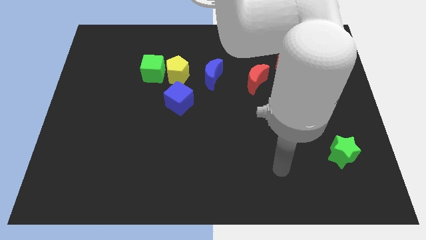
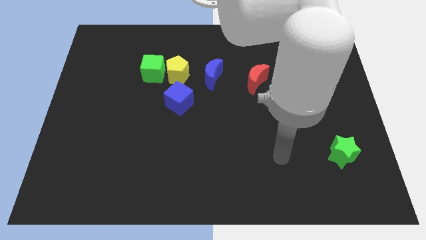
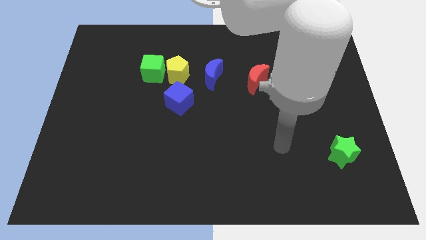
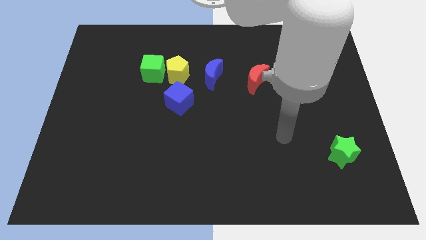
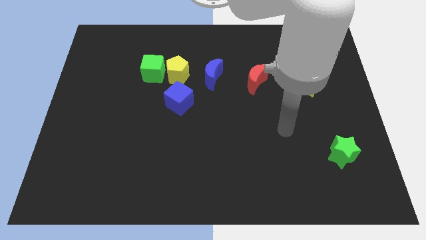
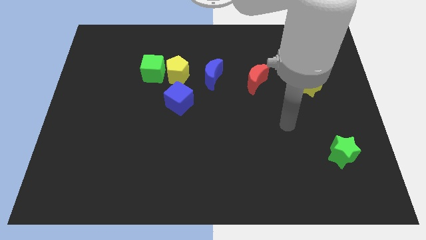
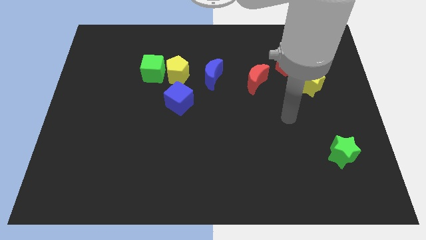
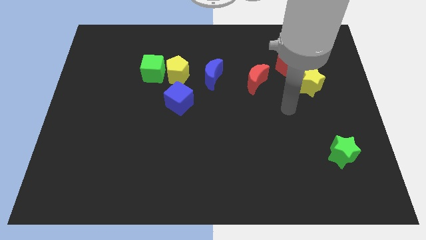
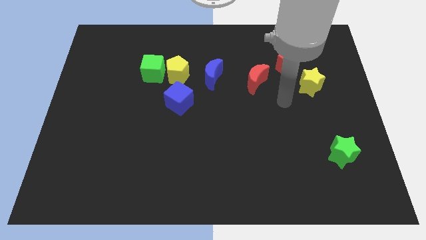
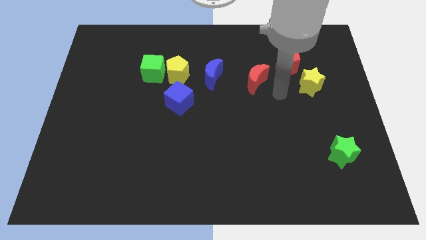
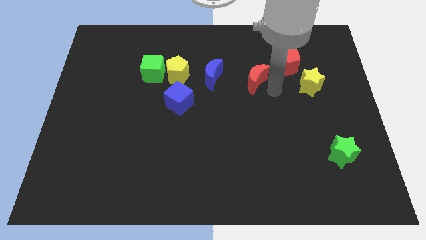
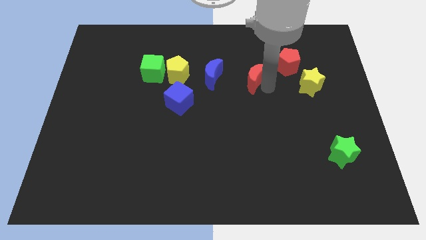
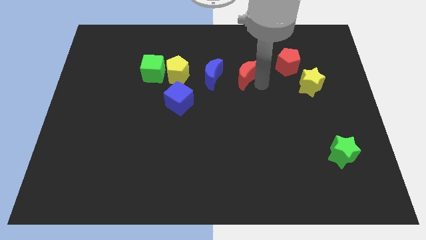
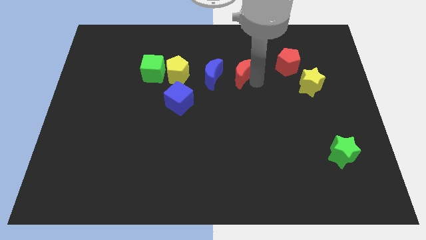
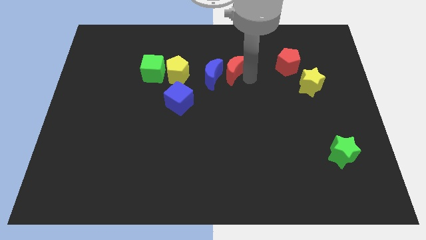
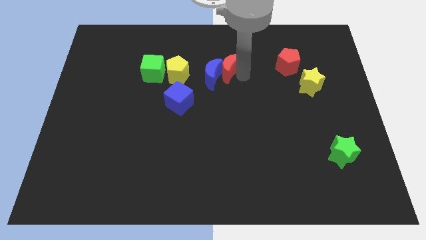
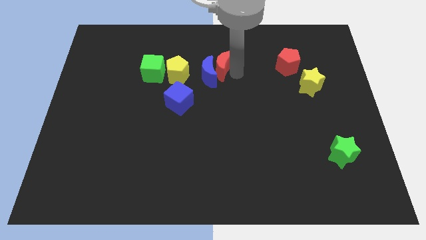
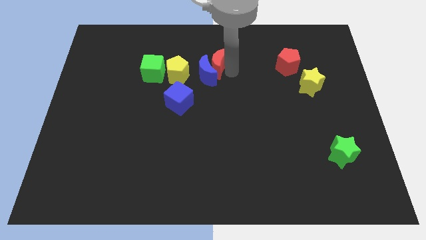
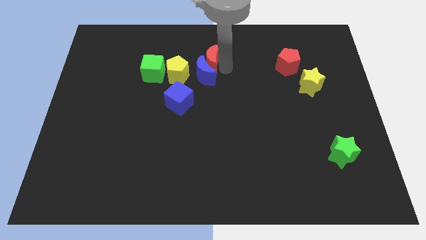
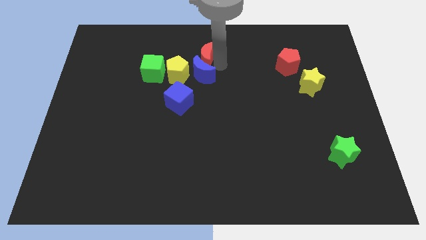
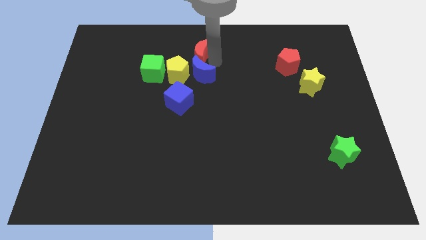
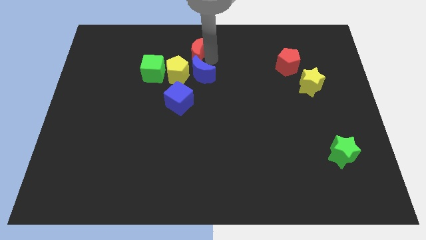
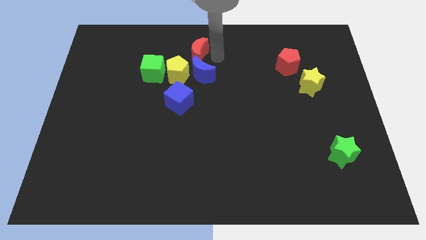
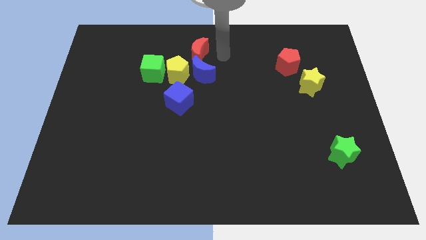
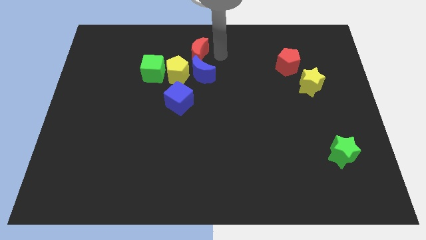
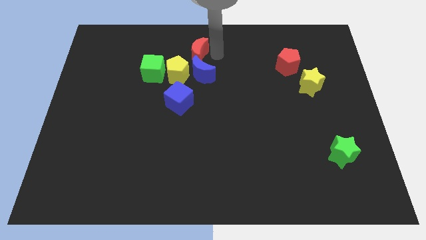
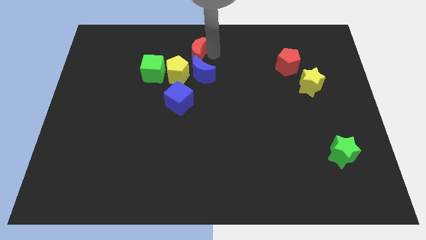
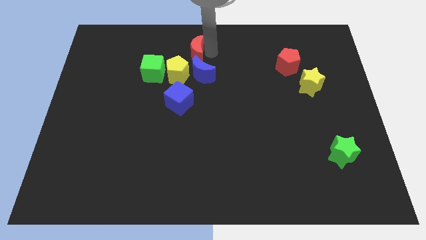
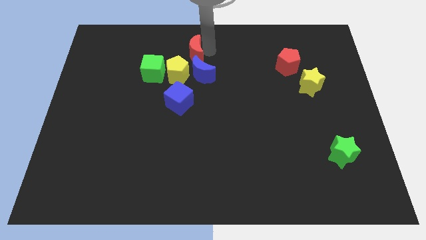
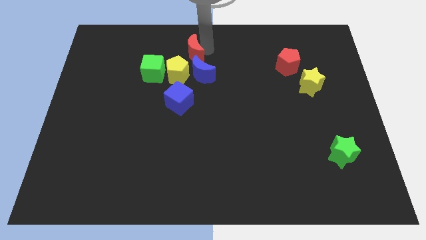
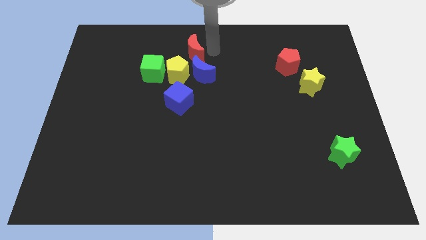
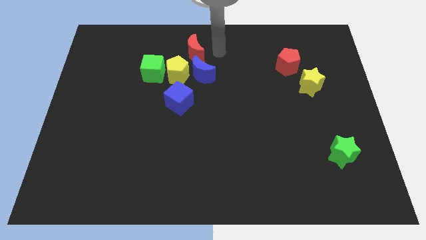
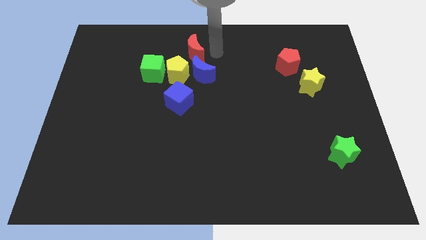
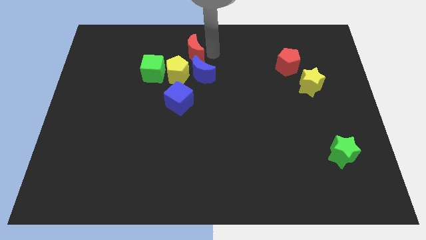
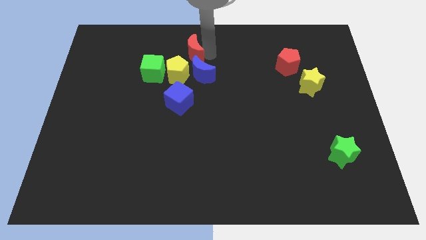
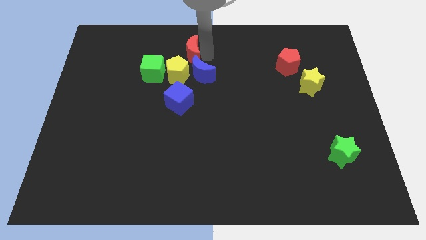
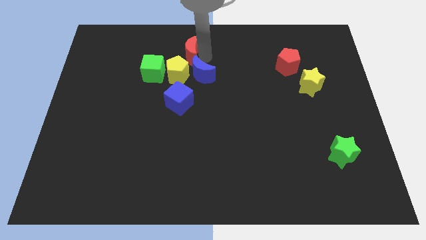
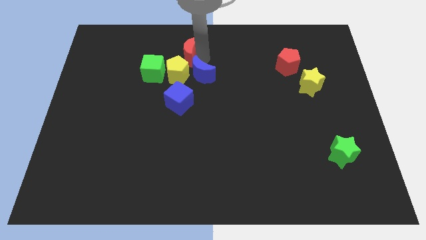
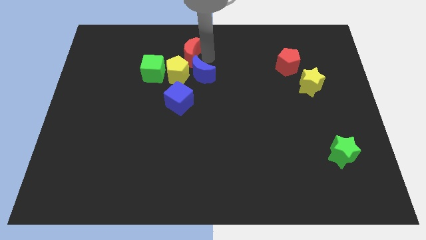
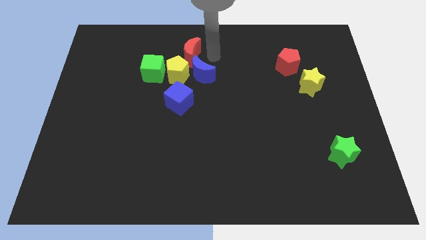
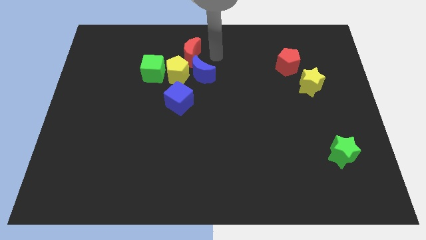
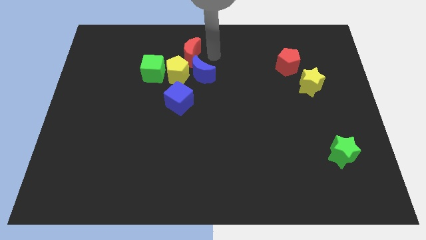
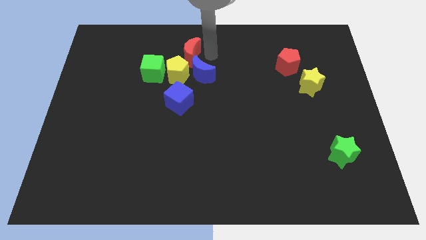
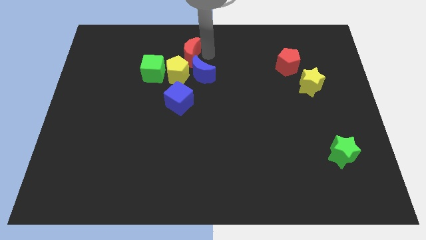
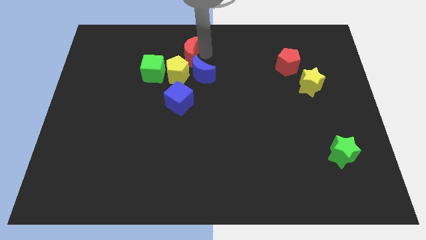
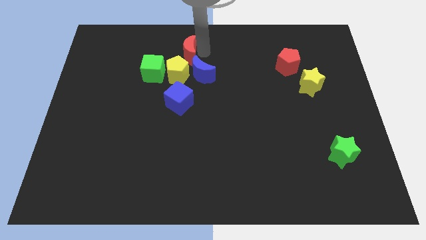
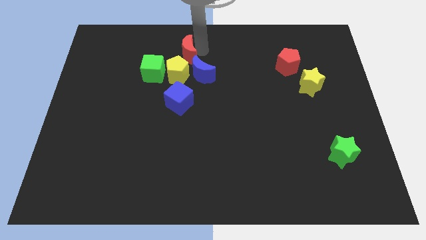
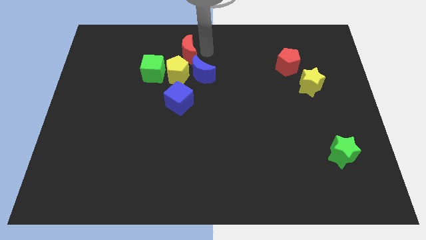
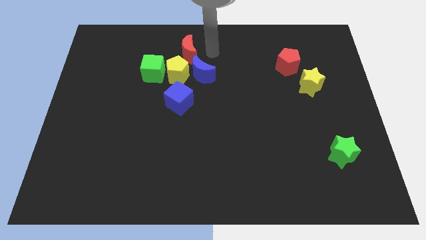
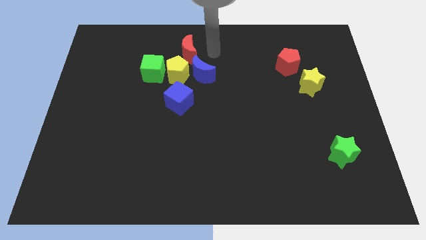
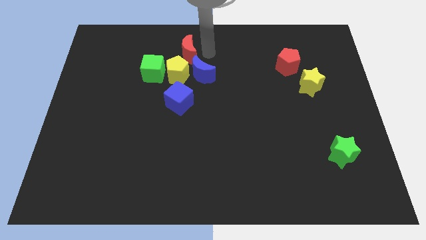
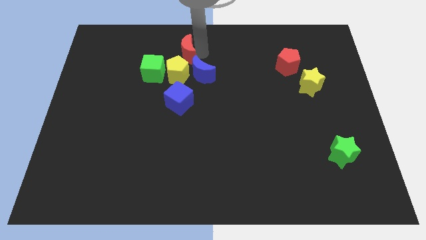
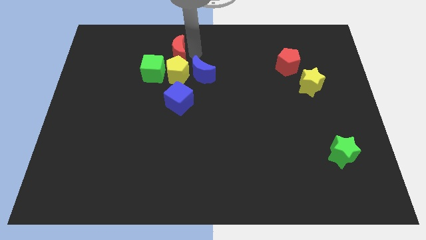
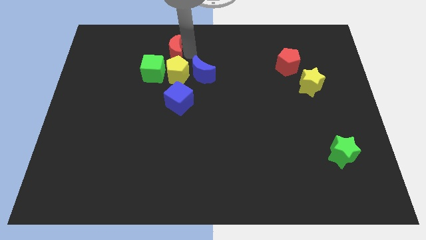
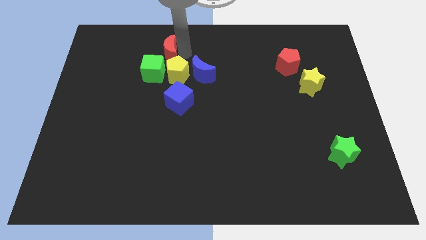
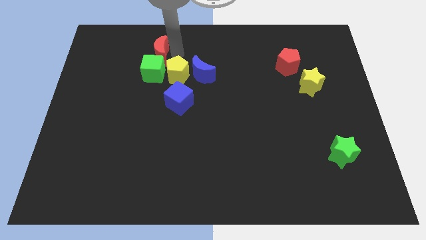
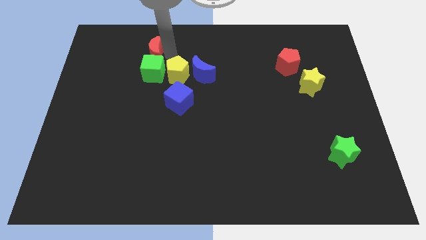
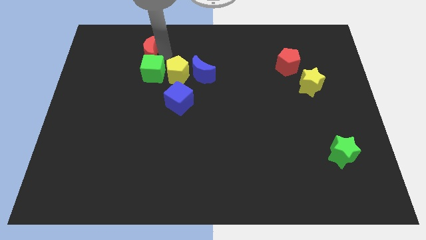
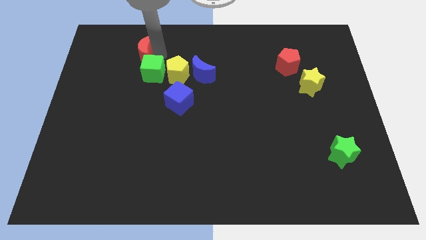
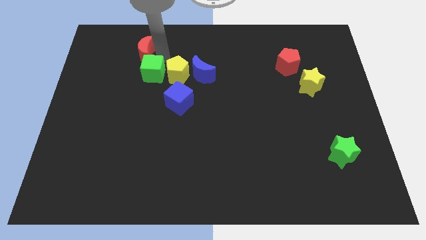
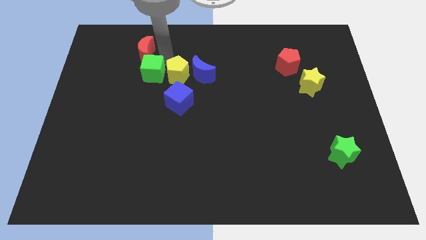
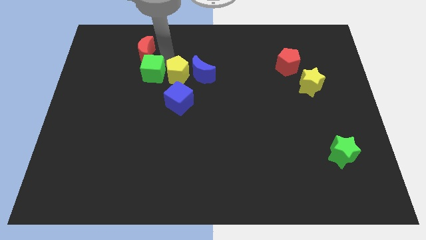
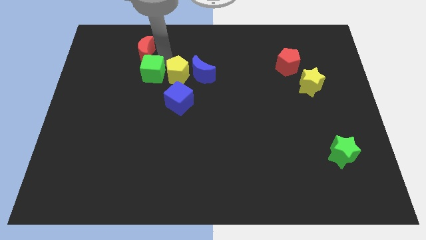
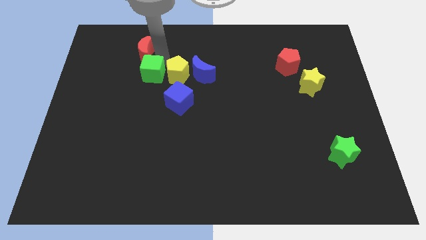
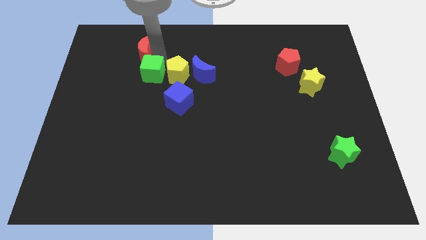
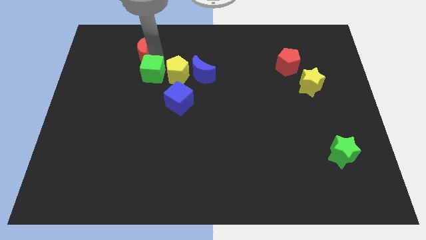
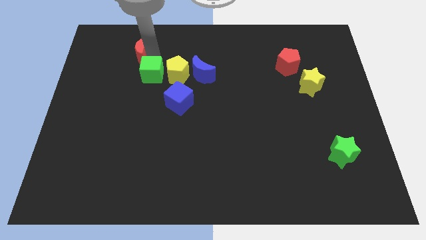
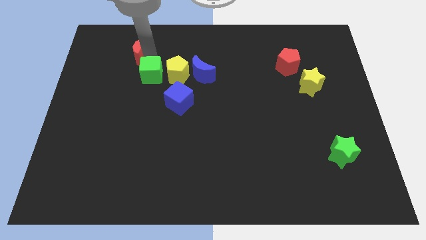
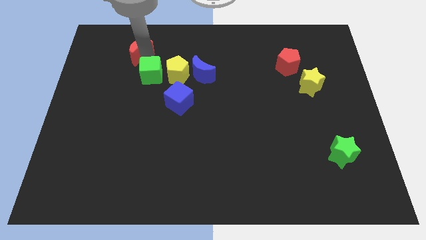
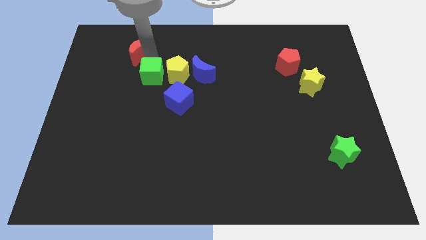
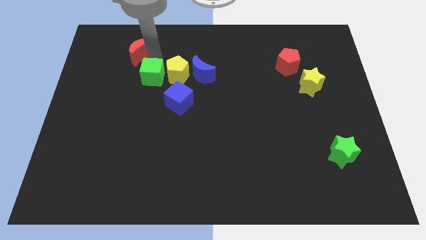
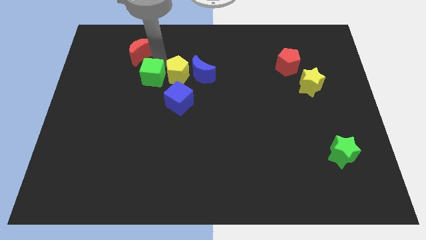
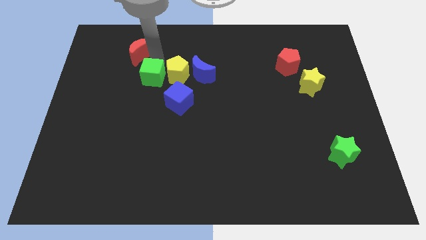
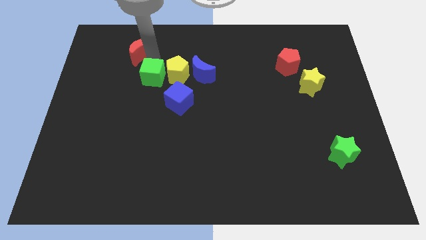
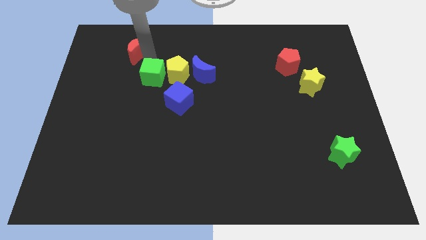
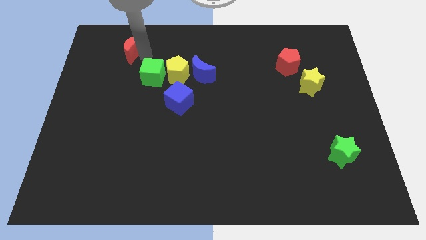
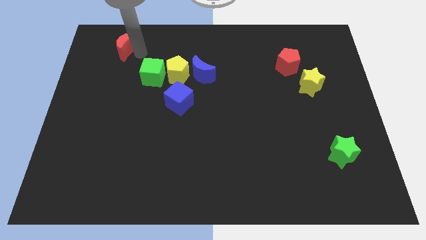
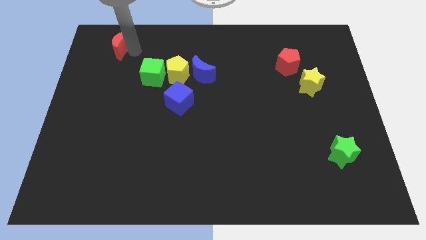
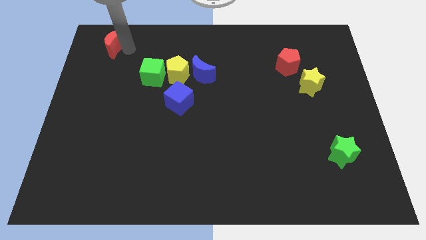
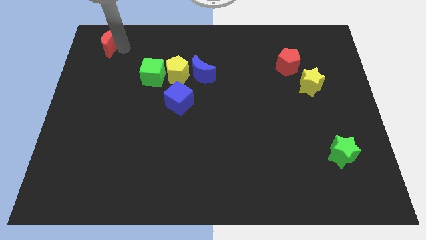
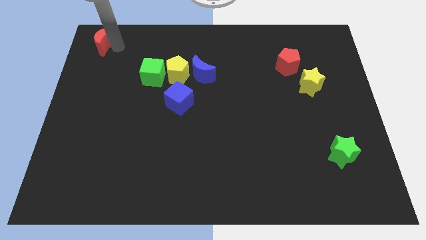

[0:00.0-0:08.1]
put the red moon to the top left corner
